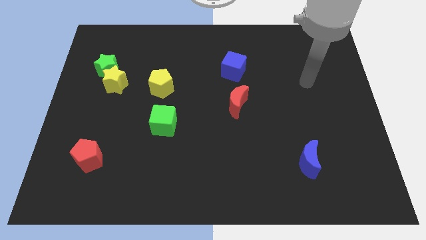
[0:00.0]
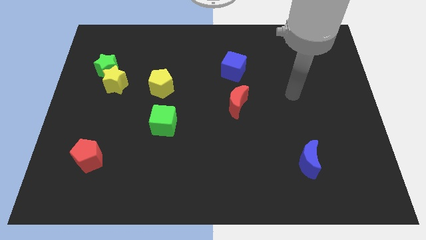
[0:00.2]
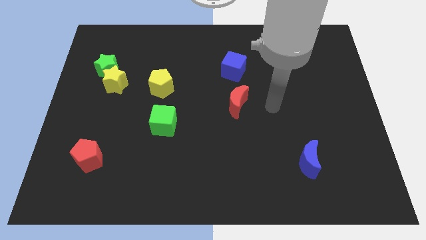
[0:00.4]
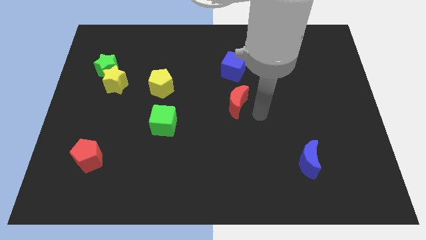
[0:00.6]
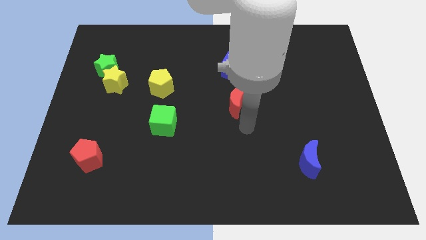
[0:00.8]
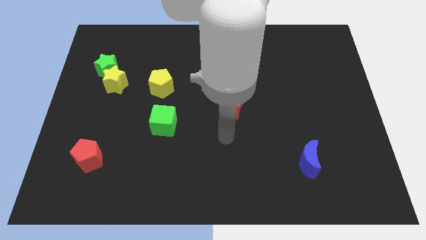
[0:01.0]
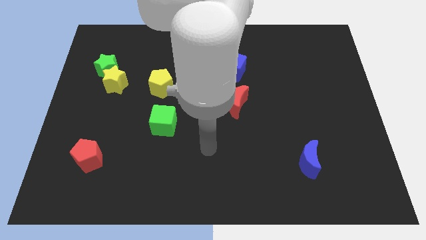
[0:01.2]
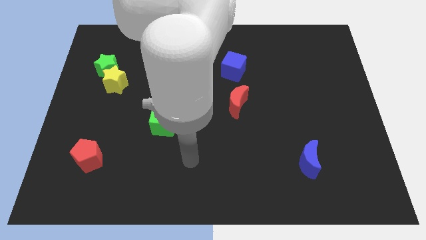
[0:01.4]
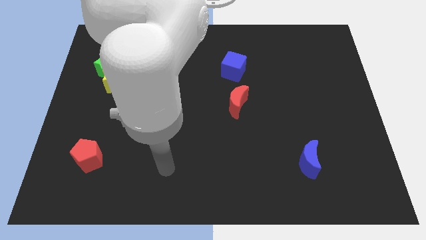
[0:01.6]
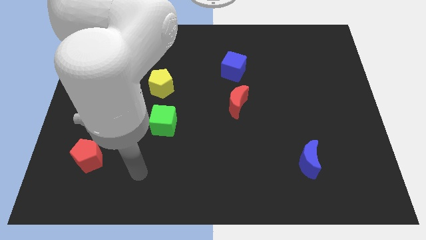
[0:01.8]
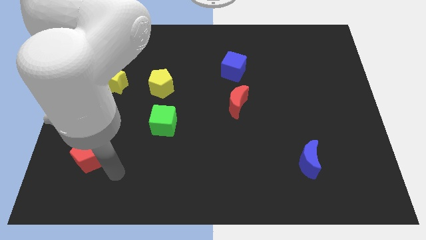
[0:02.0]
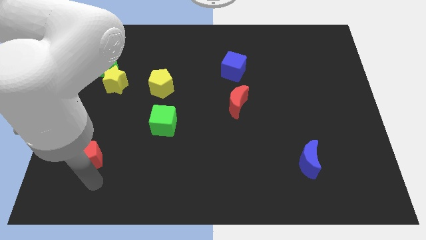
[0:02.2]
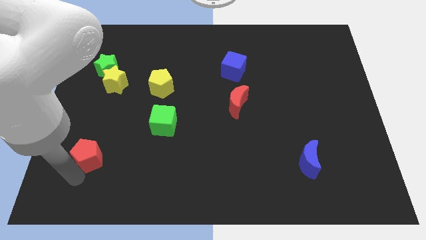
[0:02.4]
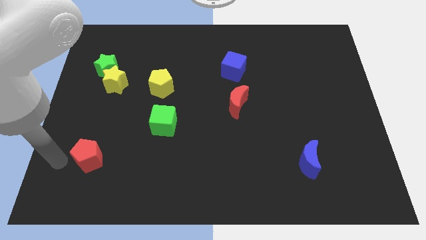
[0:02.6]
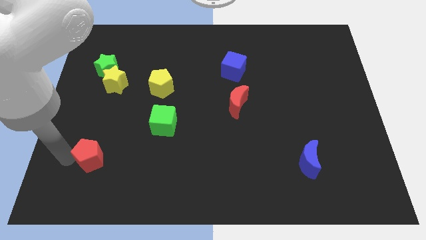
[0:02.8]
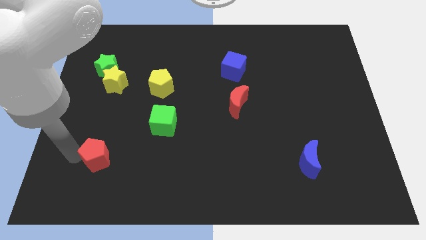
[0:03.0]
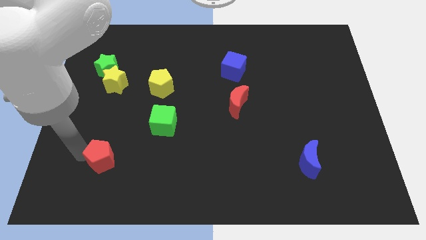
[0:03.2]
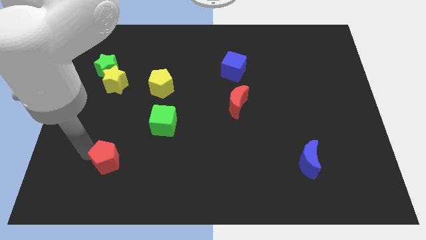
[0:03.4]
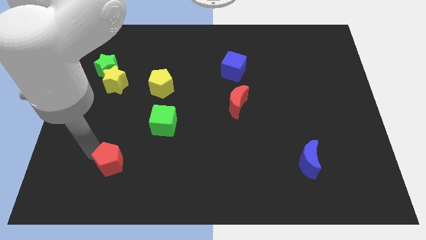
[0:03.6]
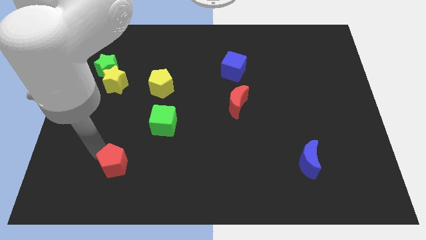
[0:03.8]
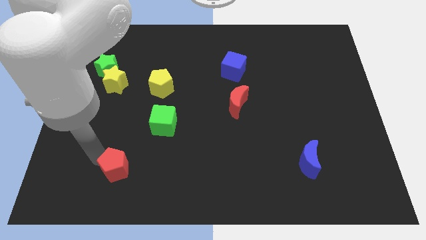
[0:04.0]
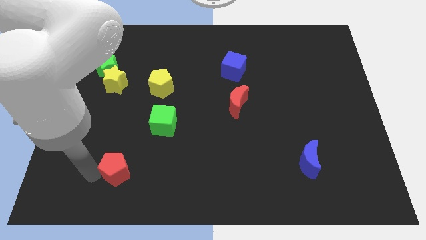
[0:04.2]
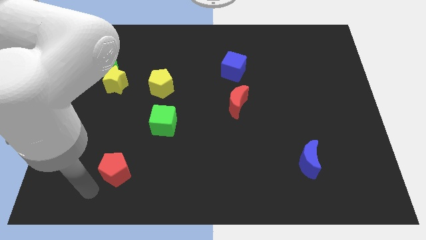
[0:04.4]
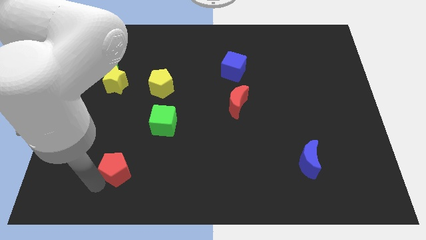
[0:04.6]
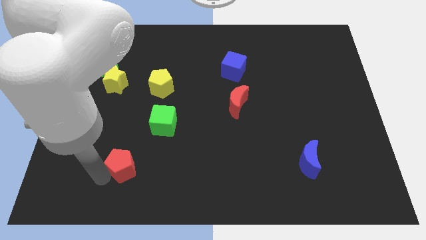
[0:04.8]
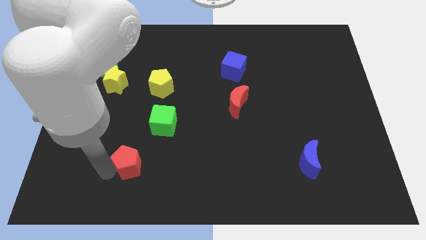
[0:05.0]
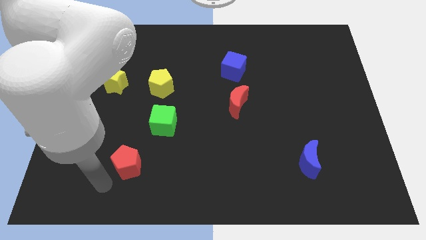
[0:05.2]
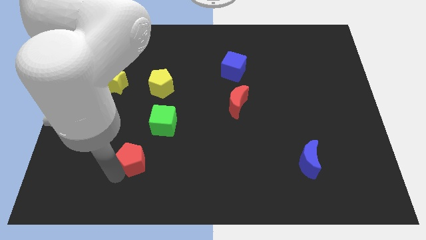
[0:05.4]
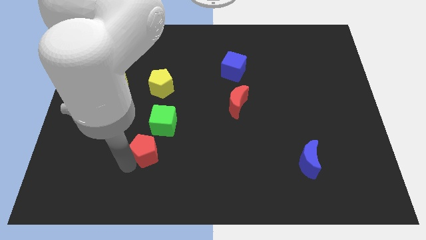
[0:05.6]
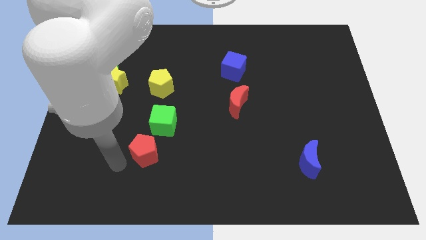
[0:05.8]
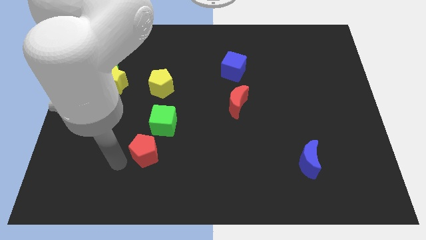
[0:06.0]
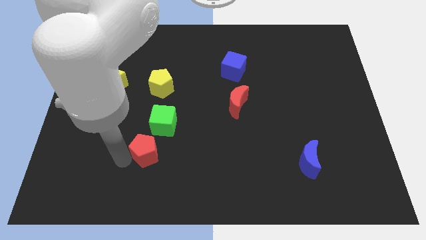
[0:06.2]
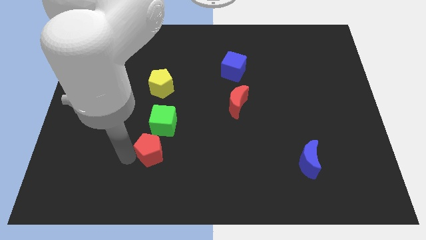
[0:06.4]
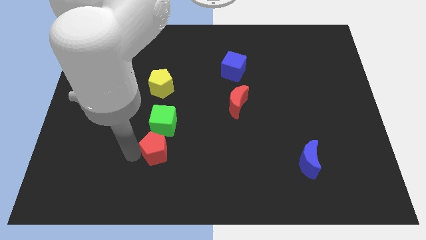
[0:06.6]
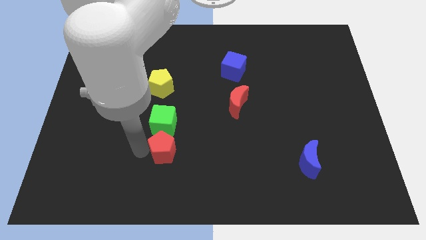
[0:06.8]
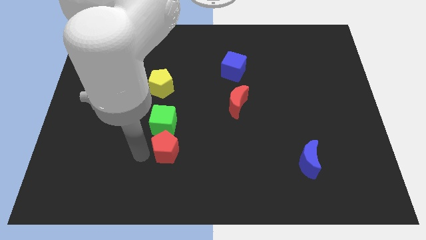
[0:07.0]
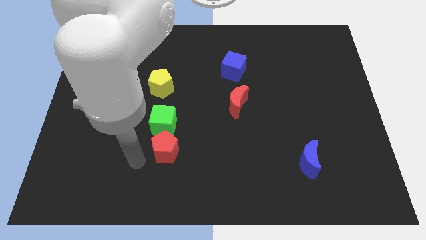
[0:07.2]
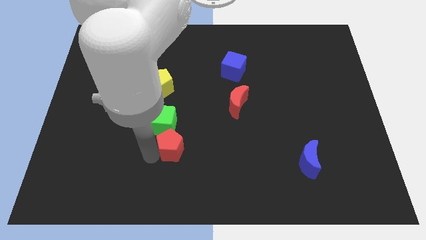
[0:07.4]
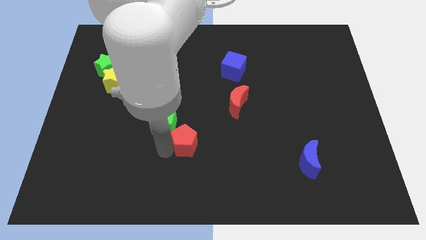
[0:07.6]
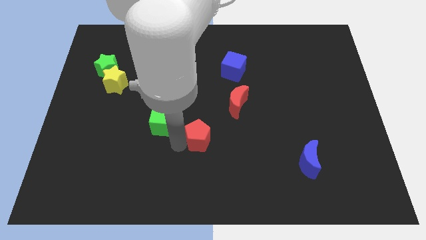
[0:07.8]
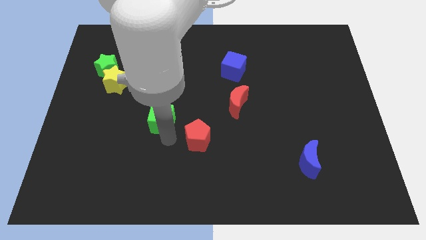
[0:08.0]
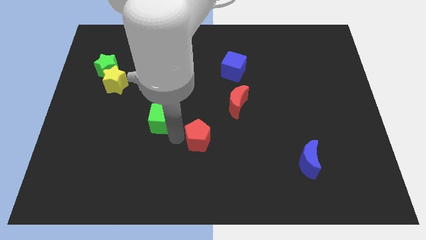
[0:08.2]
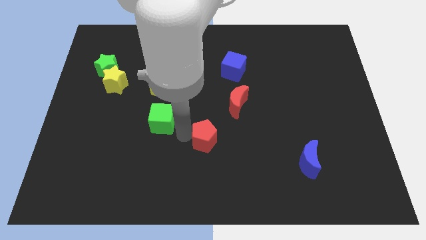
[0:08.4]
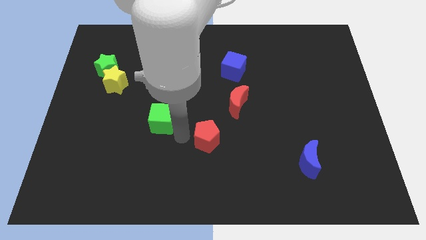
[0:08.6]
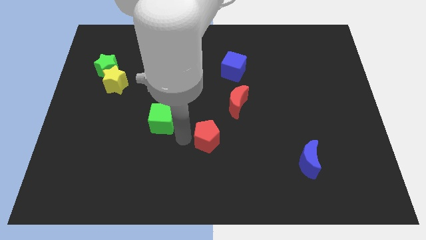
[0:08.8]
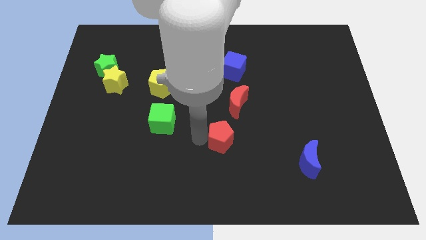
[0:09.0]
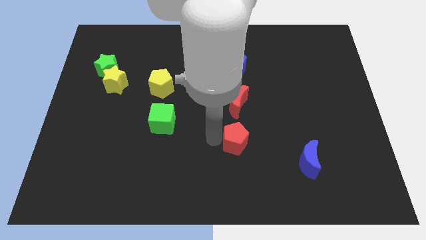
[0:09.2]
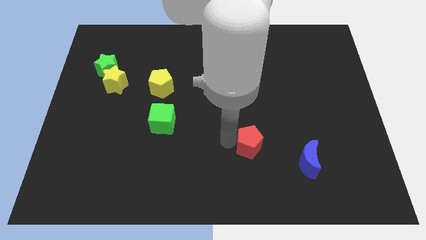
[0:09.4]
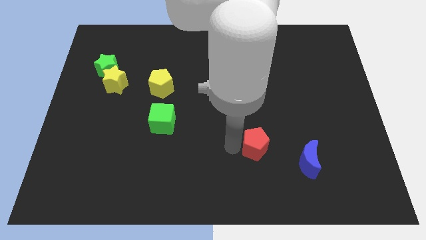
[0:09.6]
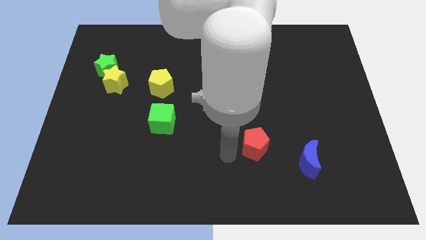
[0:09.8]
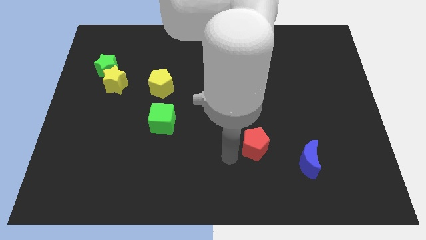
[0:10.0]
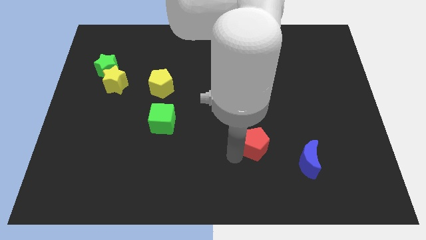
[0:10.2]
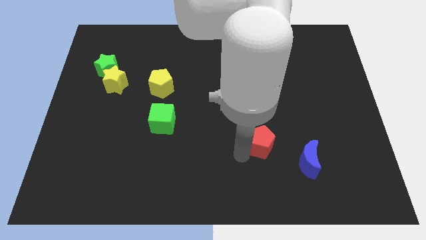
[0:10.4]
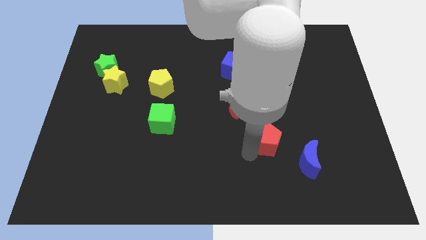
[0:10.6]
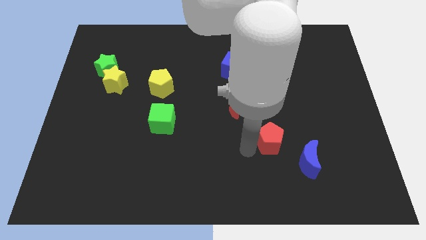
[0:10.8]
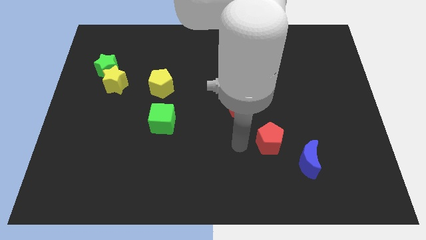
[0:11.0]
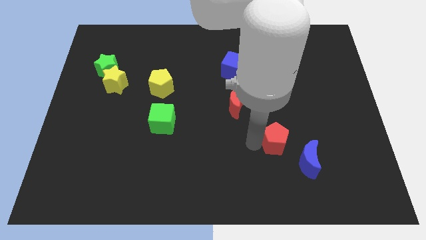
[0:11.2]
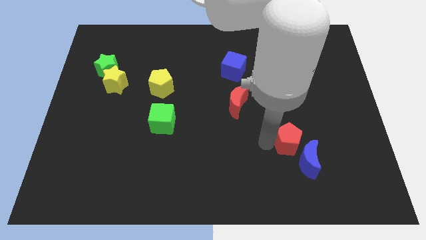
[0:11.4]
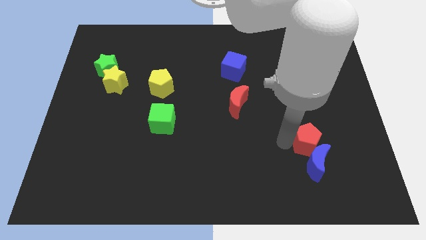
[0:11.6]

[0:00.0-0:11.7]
push the red pentagon to the top right of the blue moon

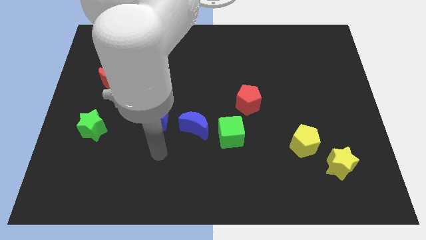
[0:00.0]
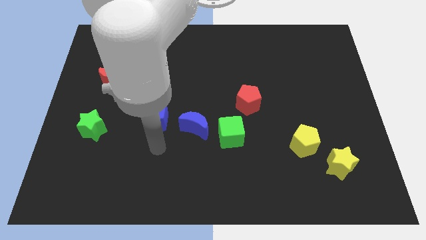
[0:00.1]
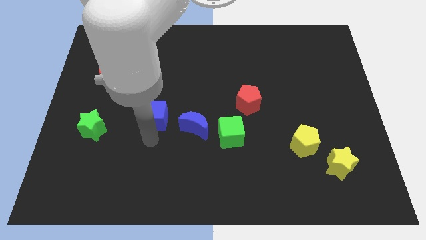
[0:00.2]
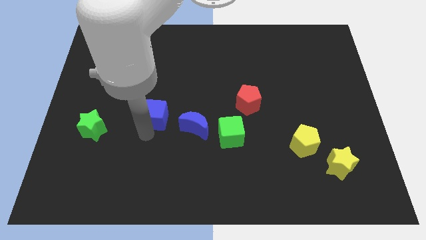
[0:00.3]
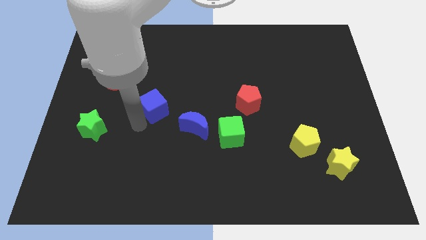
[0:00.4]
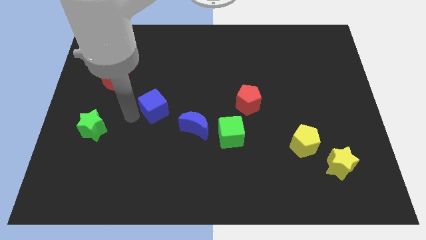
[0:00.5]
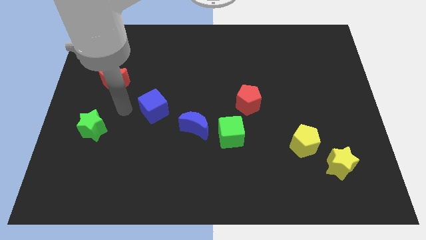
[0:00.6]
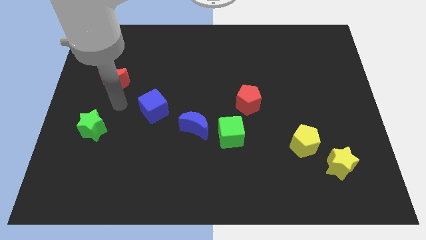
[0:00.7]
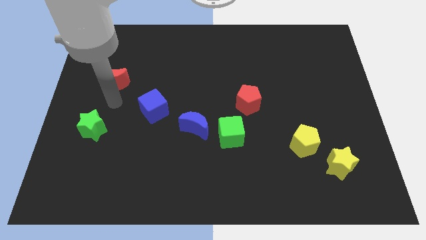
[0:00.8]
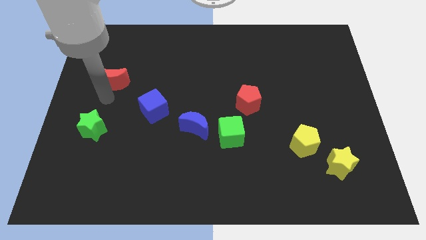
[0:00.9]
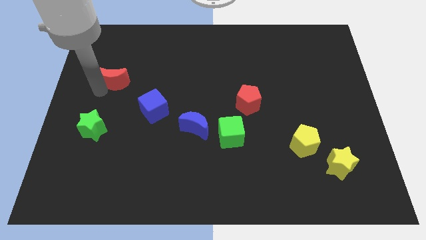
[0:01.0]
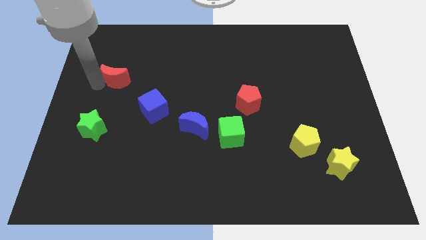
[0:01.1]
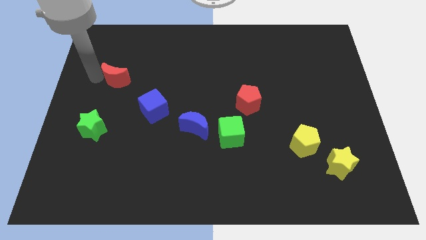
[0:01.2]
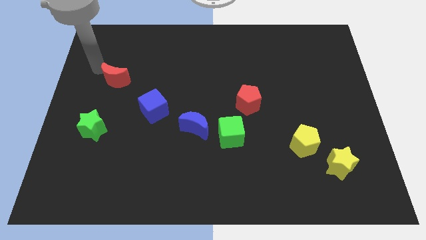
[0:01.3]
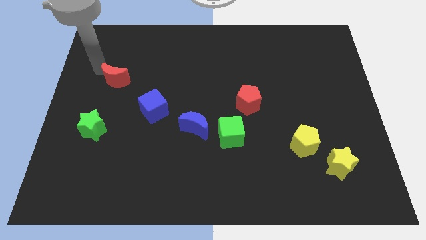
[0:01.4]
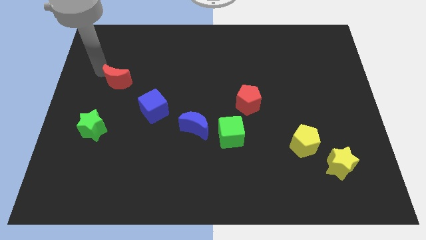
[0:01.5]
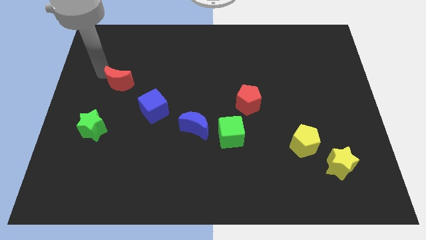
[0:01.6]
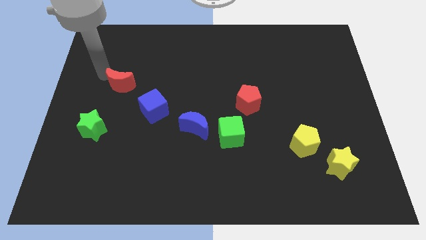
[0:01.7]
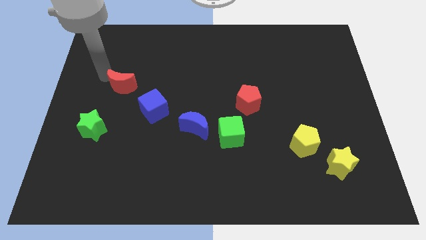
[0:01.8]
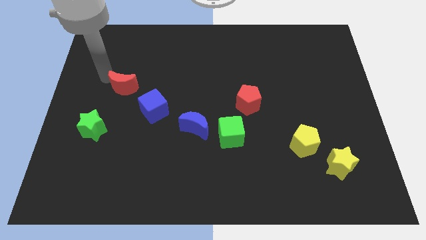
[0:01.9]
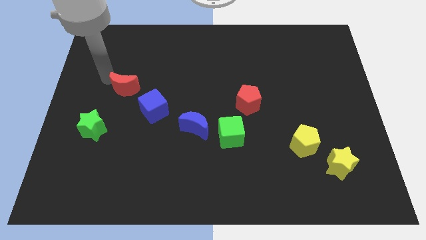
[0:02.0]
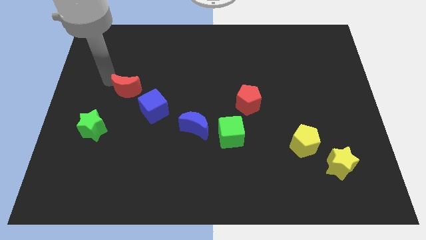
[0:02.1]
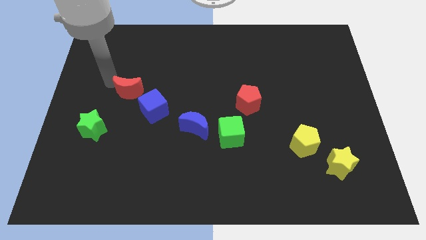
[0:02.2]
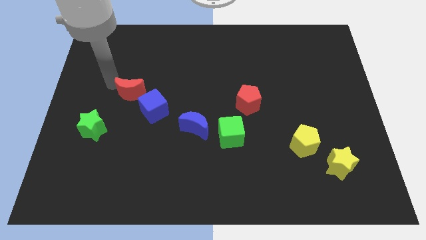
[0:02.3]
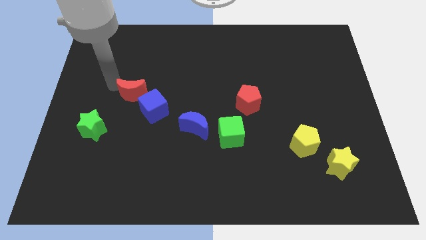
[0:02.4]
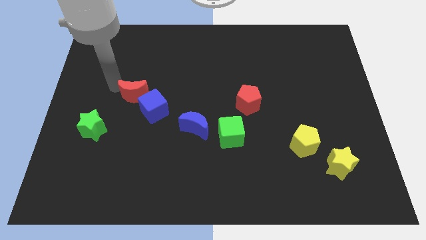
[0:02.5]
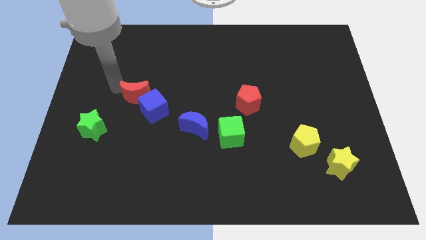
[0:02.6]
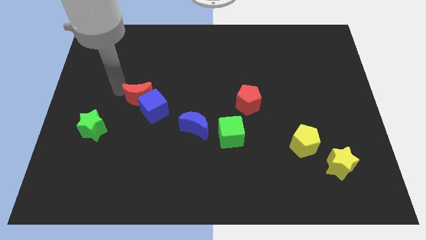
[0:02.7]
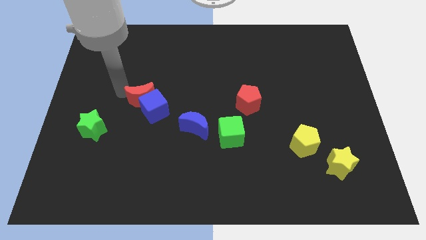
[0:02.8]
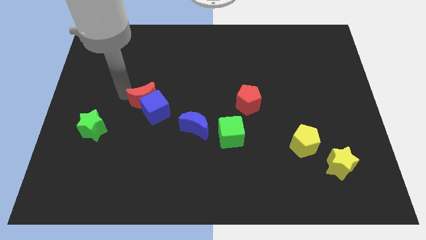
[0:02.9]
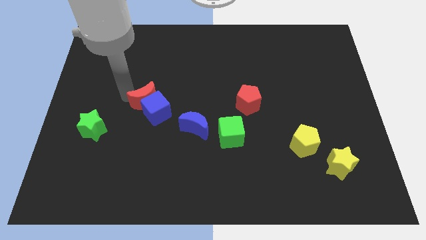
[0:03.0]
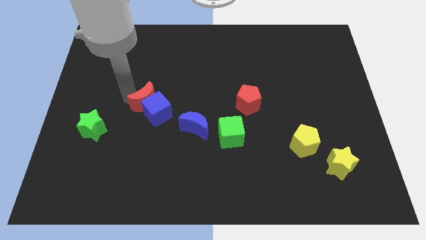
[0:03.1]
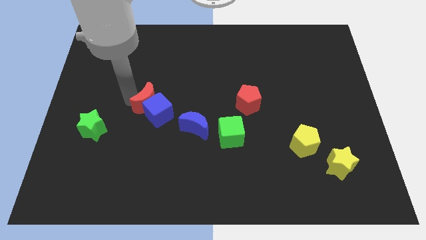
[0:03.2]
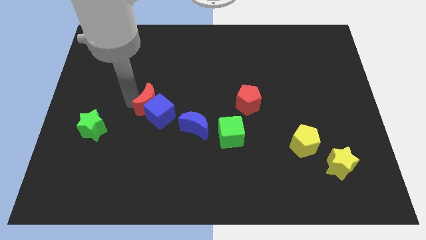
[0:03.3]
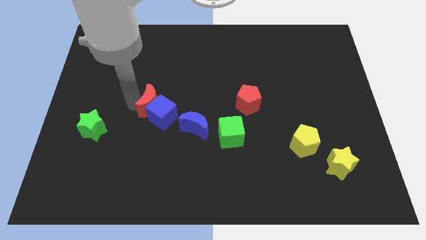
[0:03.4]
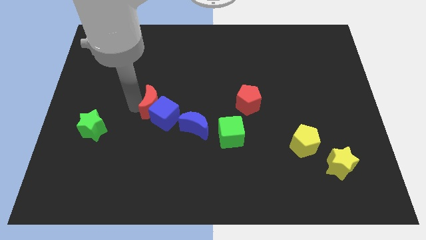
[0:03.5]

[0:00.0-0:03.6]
move the red moon to the top left of the blue moon
